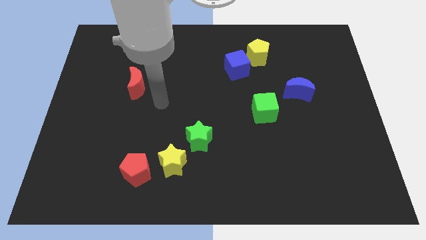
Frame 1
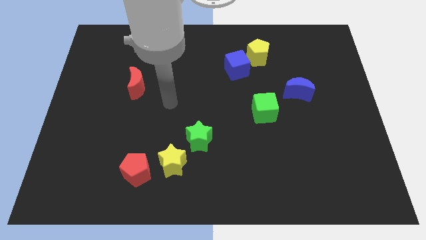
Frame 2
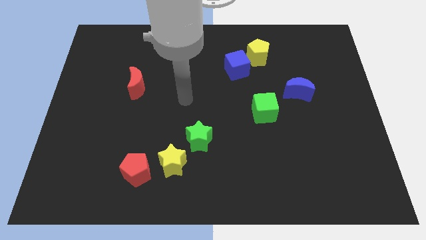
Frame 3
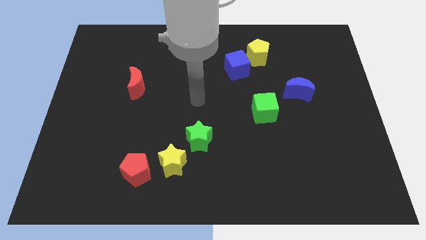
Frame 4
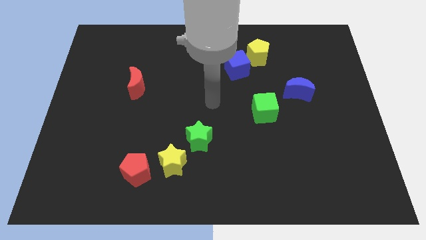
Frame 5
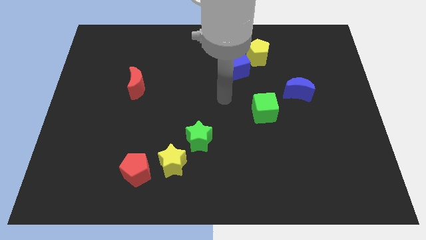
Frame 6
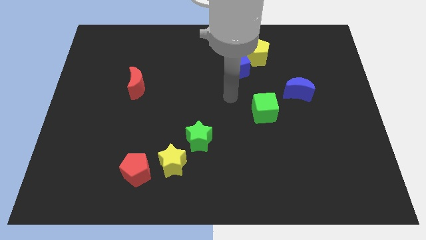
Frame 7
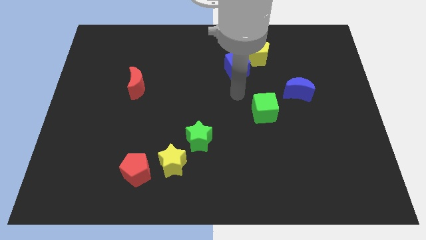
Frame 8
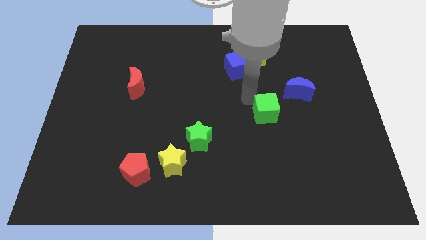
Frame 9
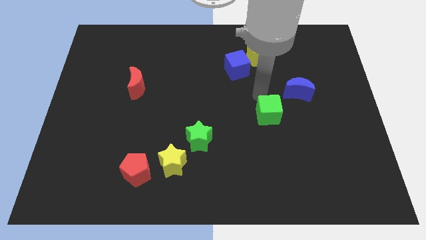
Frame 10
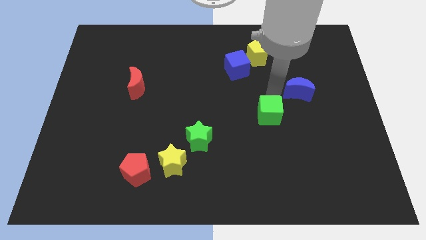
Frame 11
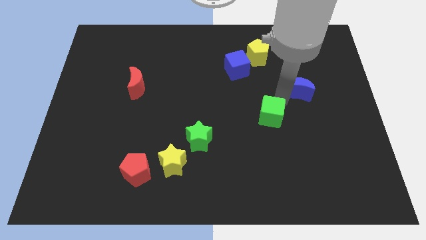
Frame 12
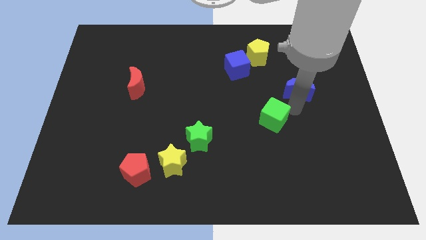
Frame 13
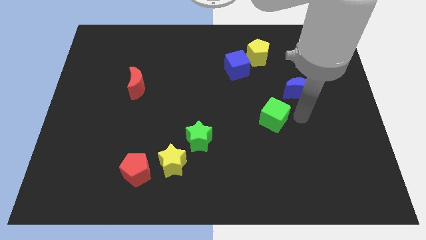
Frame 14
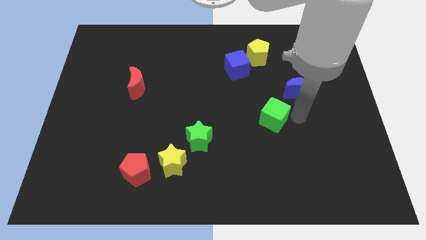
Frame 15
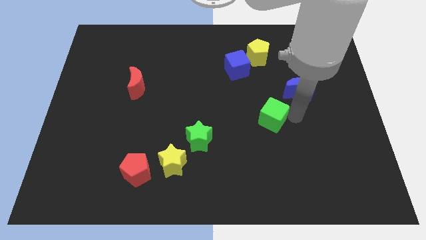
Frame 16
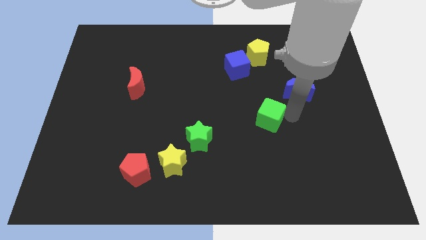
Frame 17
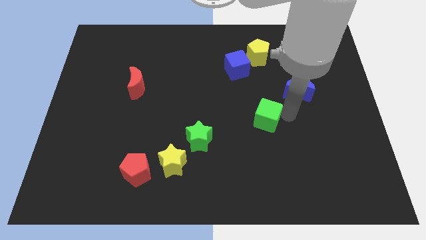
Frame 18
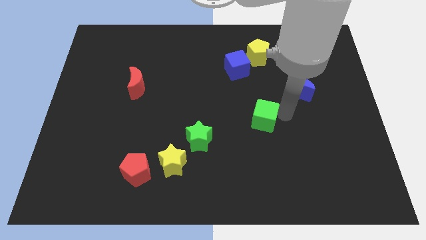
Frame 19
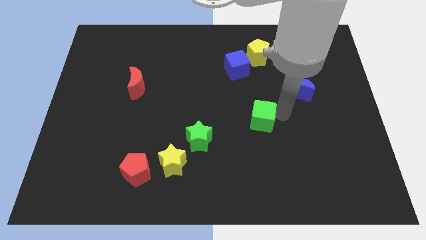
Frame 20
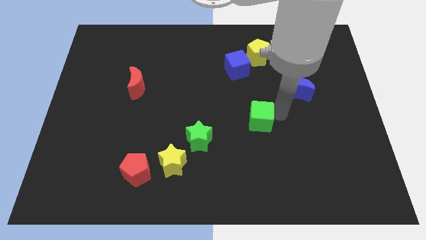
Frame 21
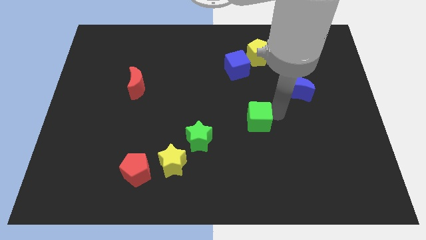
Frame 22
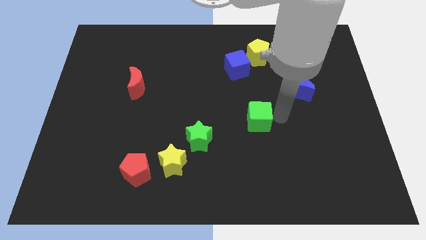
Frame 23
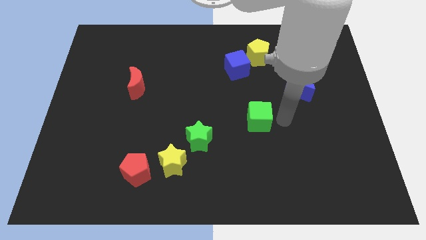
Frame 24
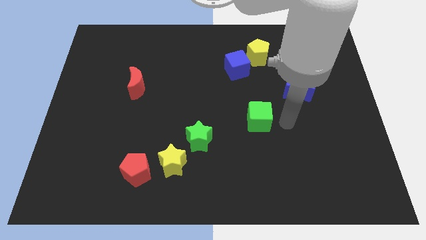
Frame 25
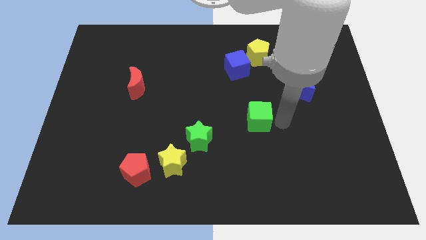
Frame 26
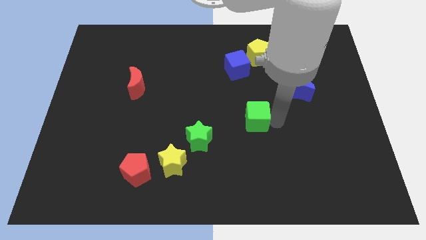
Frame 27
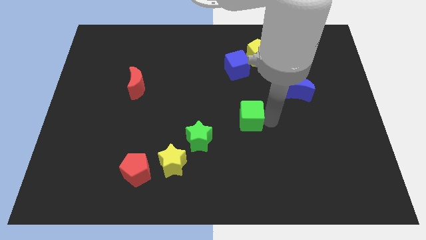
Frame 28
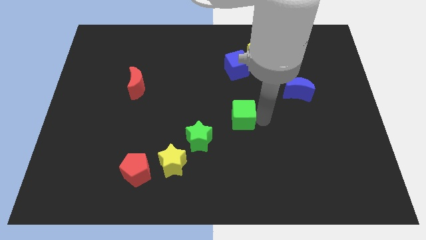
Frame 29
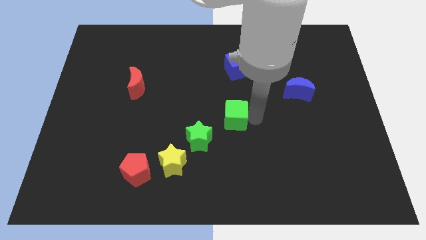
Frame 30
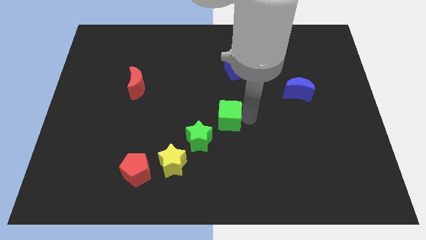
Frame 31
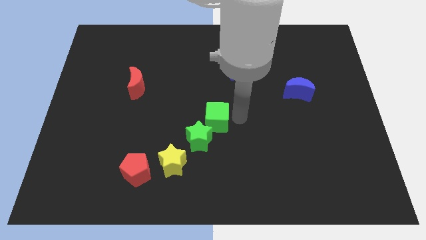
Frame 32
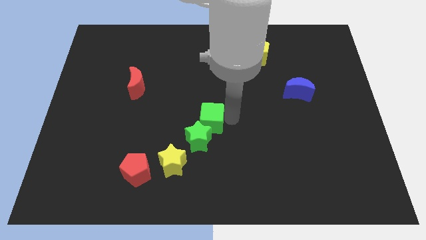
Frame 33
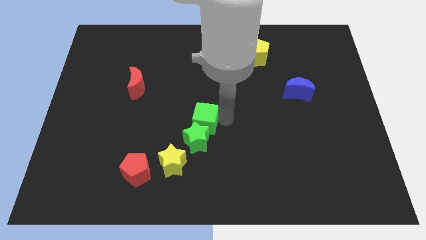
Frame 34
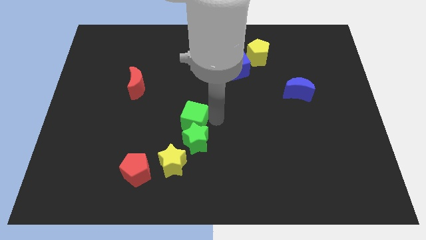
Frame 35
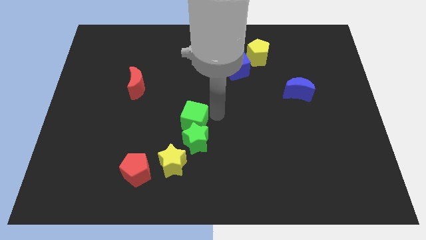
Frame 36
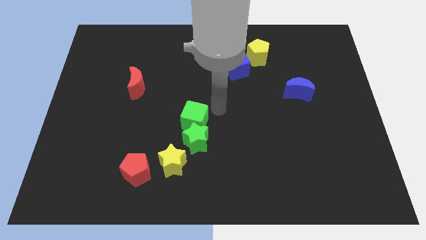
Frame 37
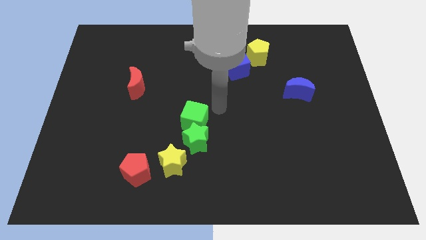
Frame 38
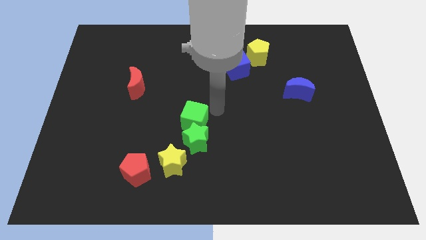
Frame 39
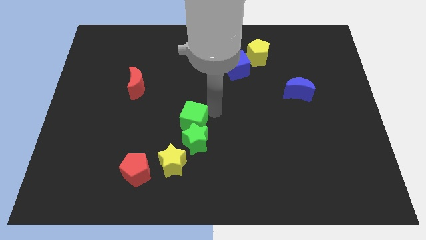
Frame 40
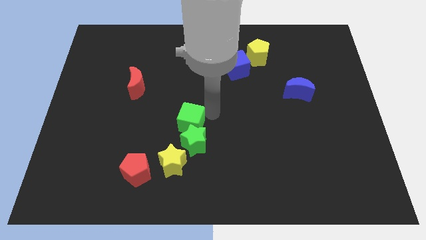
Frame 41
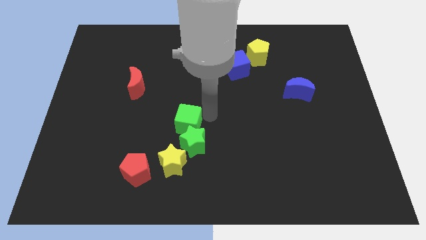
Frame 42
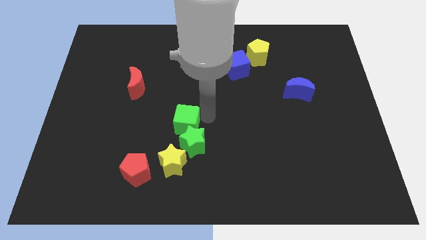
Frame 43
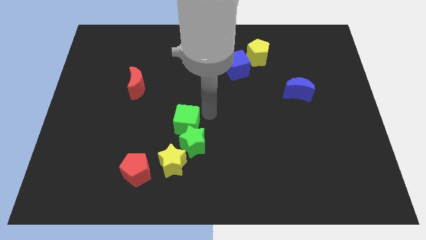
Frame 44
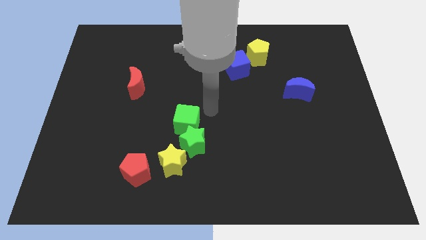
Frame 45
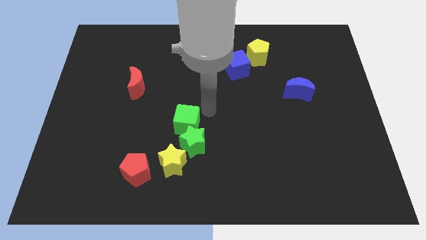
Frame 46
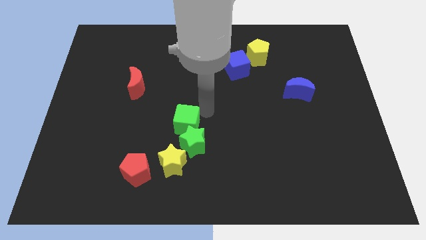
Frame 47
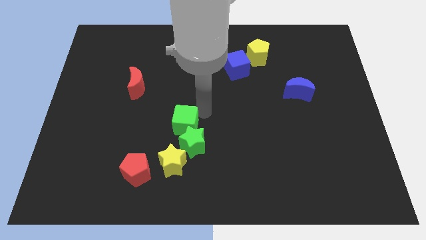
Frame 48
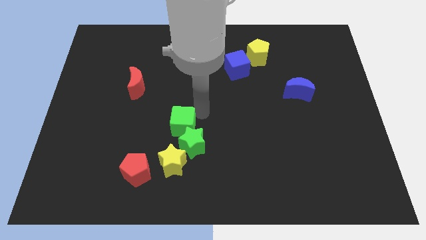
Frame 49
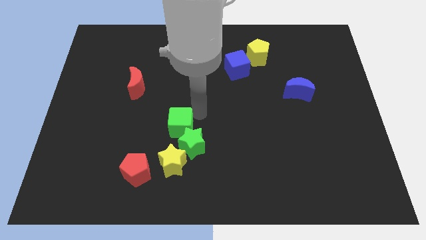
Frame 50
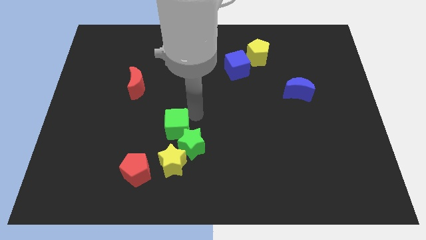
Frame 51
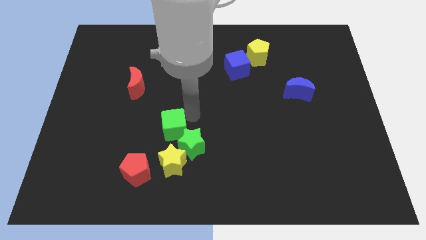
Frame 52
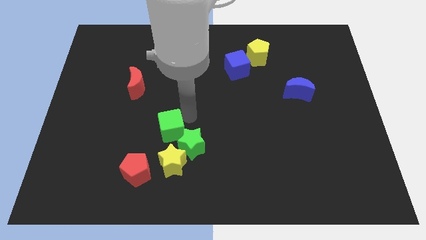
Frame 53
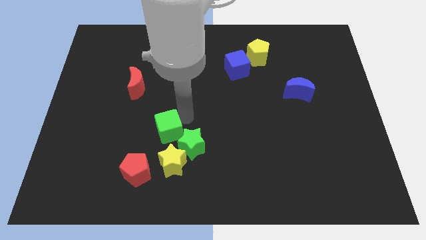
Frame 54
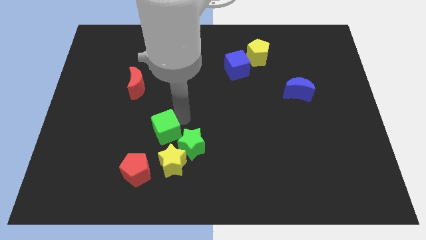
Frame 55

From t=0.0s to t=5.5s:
slide the green cube to the top left side of the yellow star

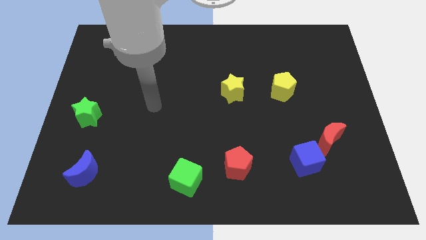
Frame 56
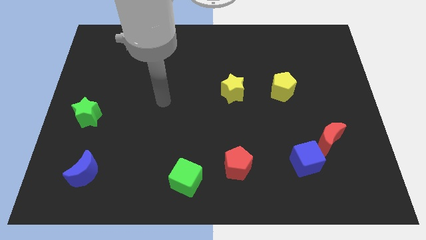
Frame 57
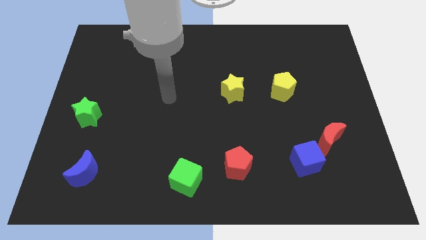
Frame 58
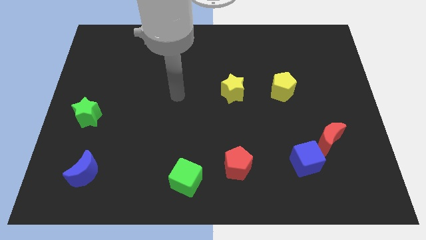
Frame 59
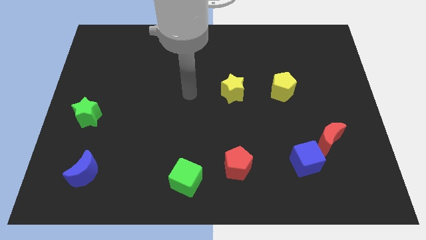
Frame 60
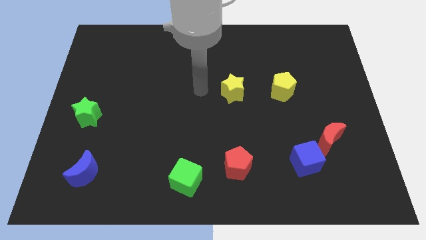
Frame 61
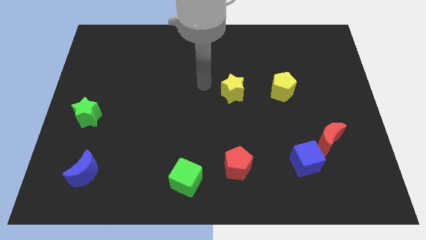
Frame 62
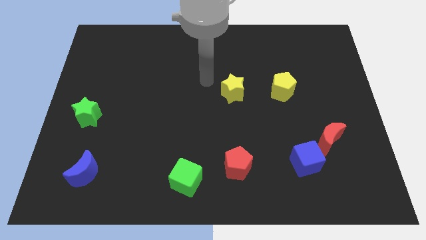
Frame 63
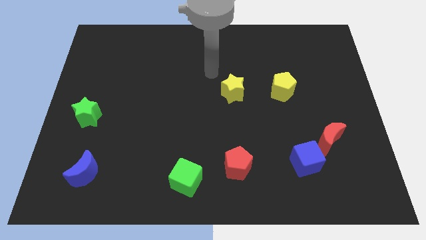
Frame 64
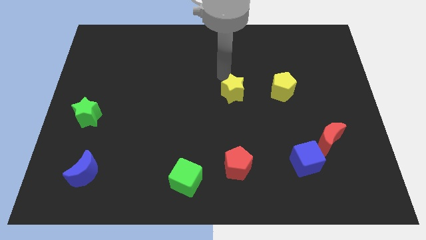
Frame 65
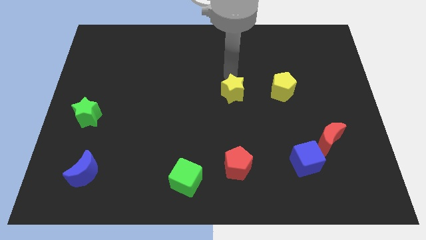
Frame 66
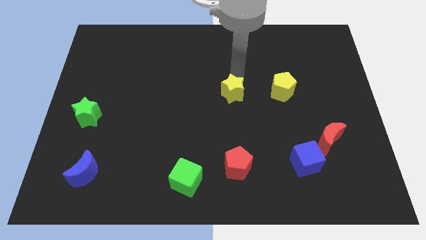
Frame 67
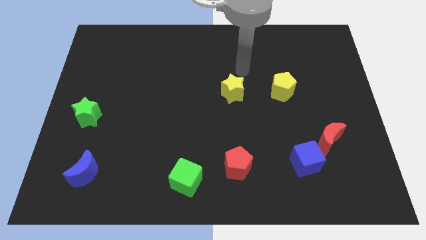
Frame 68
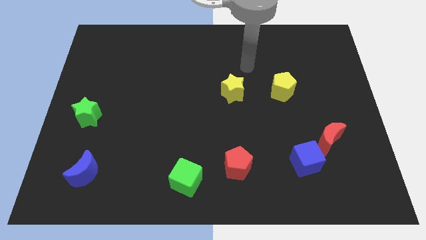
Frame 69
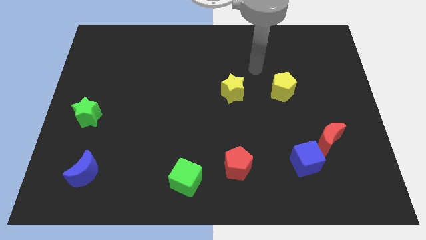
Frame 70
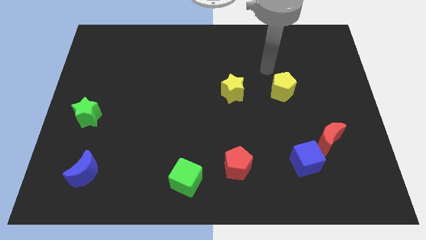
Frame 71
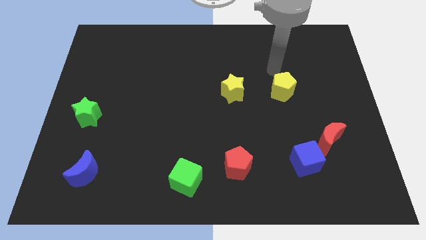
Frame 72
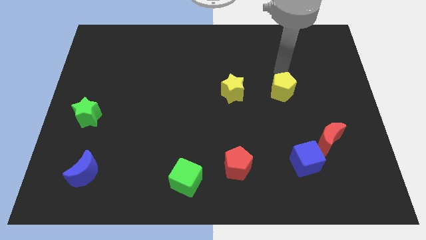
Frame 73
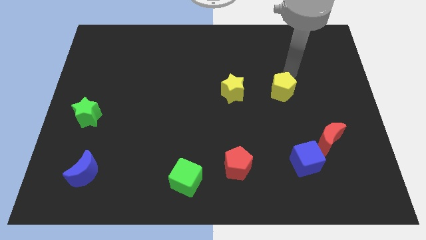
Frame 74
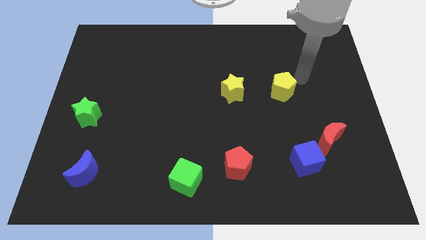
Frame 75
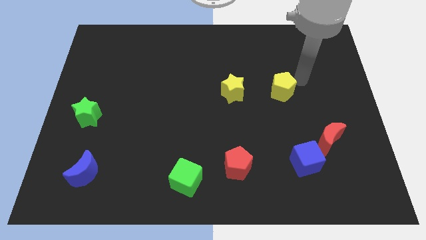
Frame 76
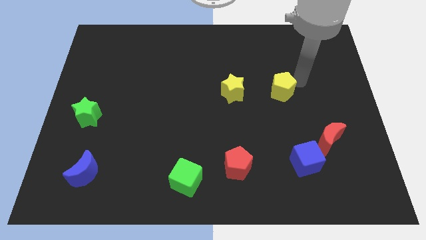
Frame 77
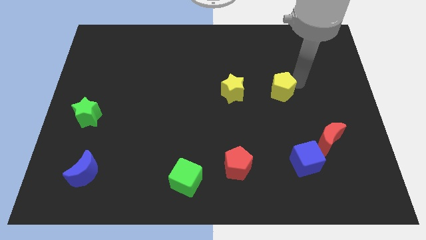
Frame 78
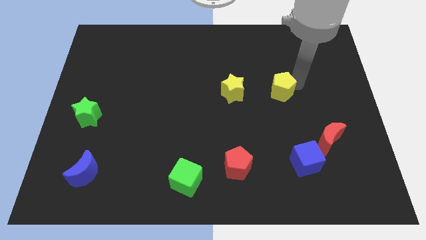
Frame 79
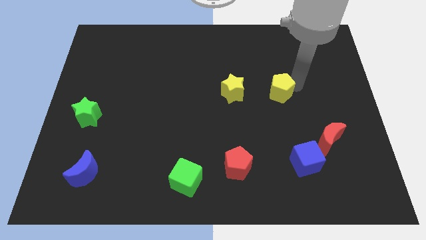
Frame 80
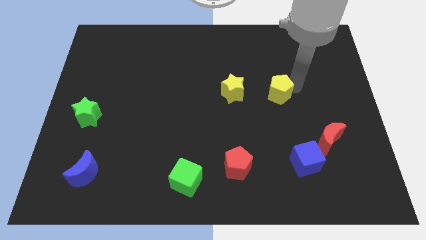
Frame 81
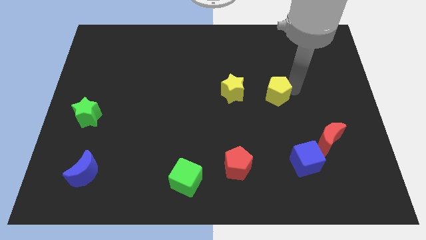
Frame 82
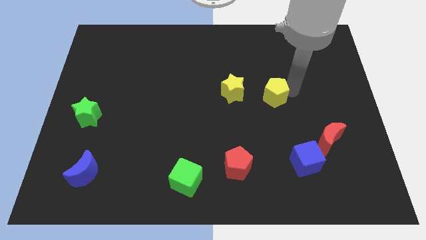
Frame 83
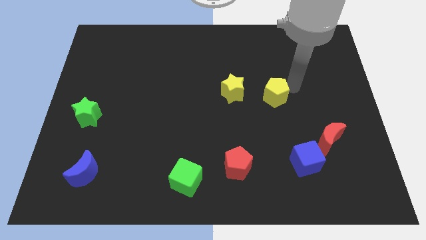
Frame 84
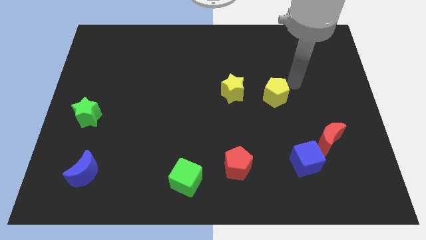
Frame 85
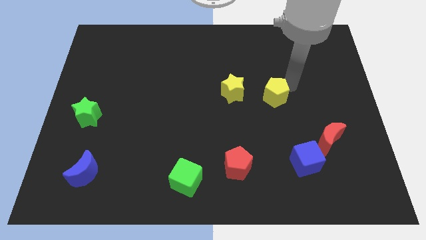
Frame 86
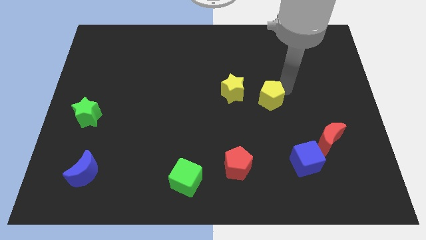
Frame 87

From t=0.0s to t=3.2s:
move the yellow pentagon to the bottom right side of the yellow star
